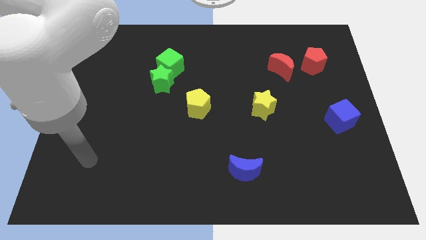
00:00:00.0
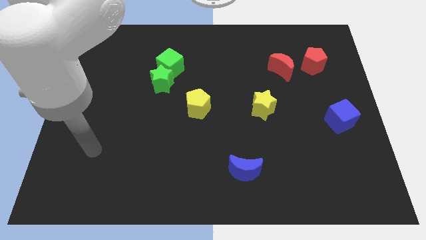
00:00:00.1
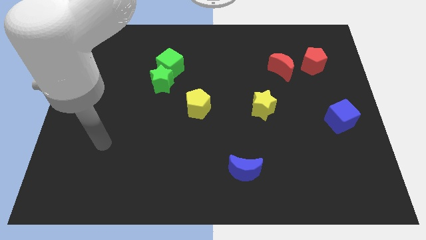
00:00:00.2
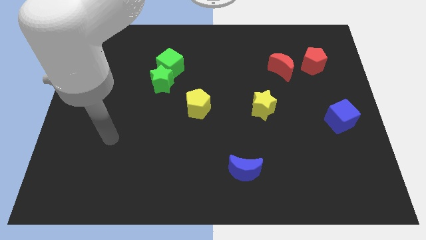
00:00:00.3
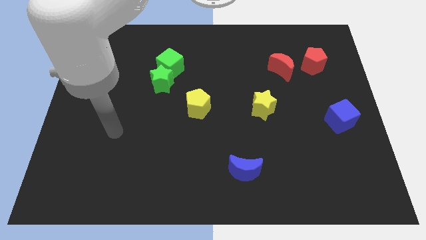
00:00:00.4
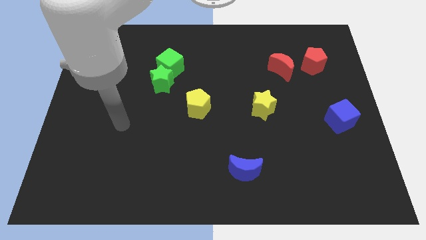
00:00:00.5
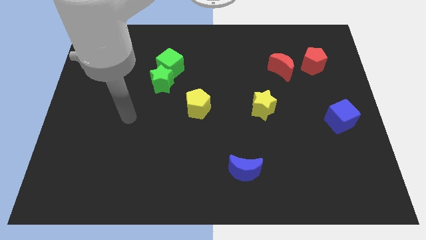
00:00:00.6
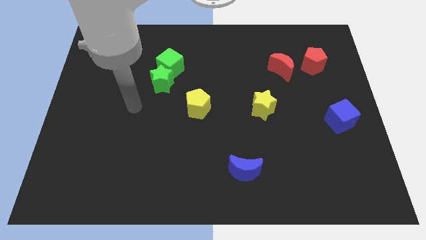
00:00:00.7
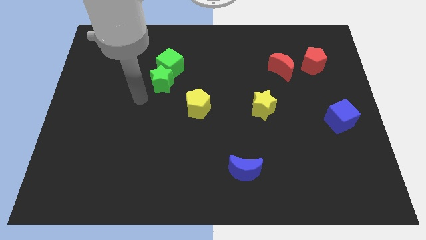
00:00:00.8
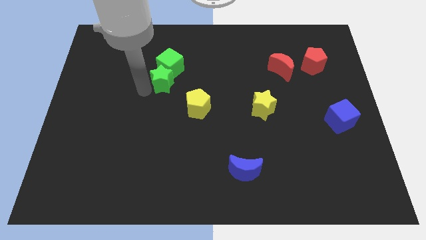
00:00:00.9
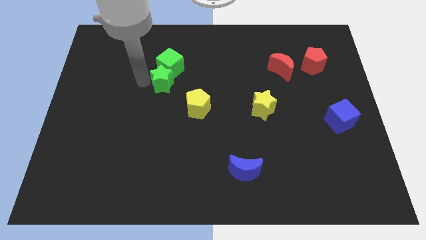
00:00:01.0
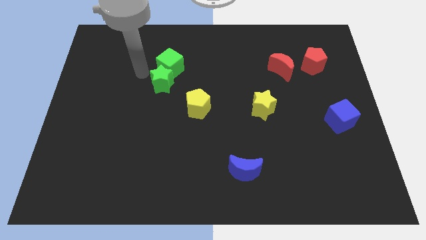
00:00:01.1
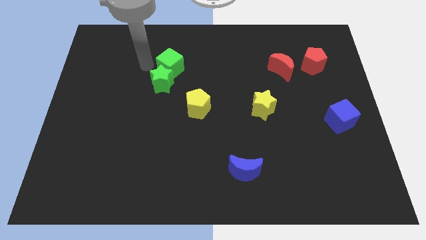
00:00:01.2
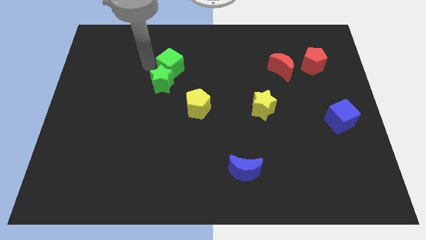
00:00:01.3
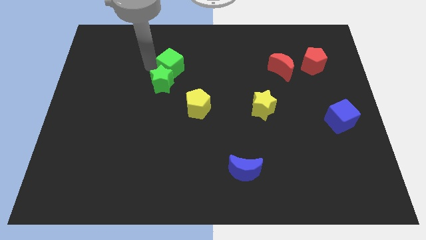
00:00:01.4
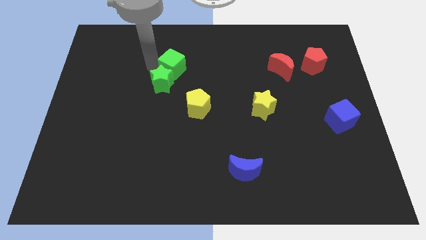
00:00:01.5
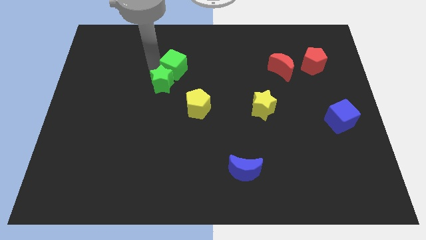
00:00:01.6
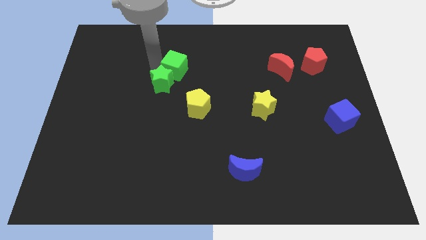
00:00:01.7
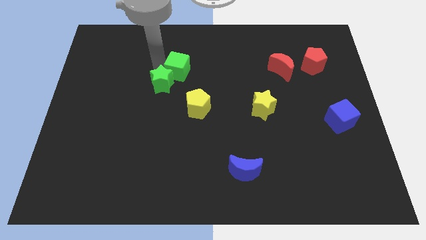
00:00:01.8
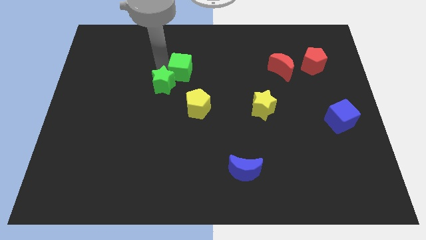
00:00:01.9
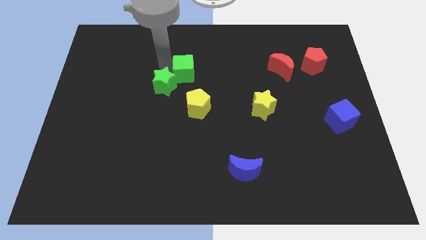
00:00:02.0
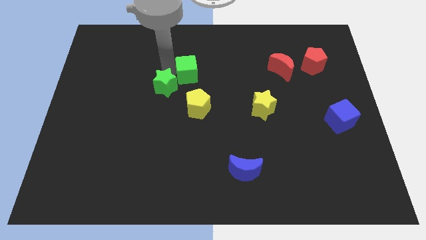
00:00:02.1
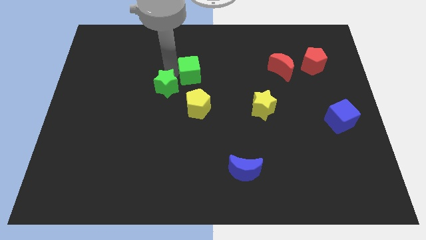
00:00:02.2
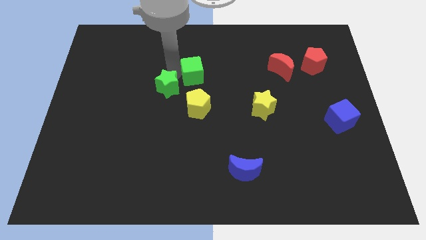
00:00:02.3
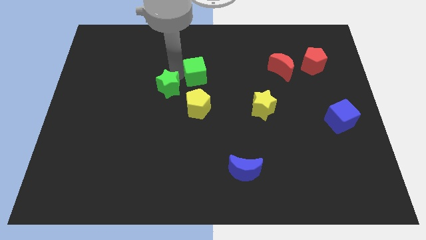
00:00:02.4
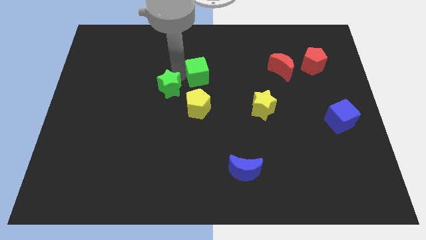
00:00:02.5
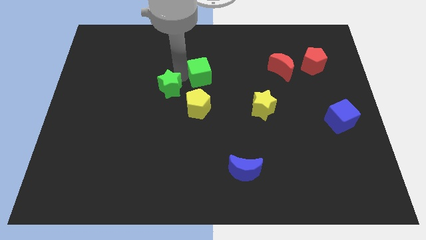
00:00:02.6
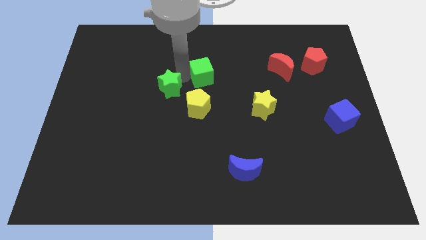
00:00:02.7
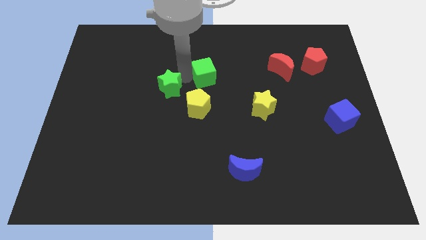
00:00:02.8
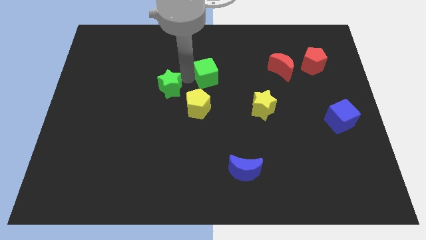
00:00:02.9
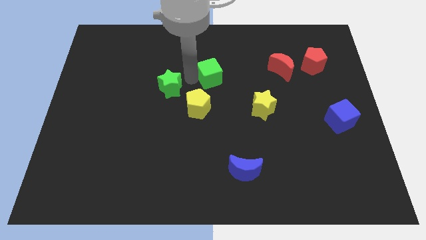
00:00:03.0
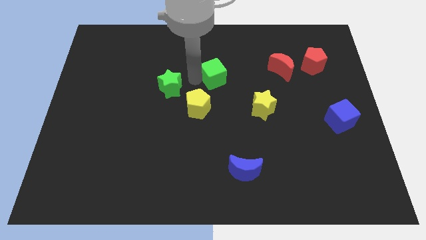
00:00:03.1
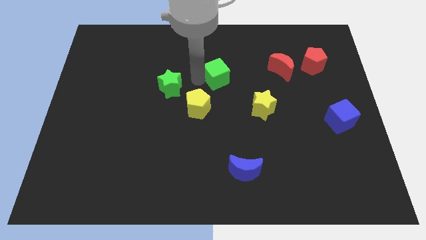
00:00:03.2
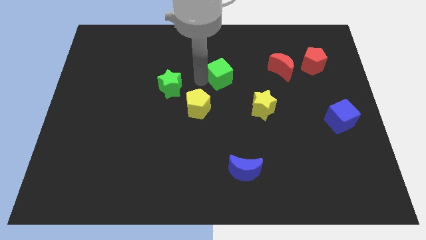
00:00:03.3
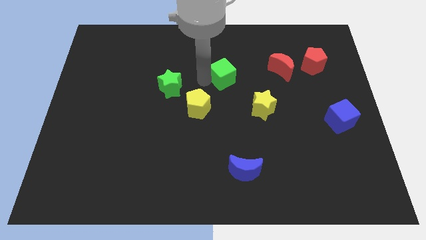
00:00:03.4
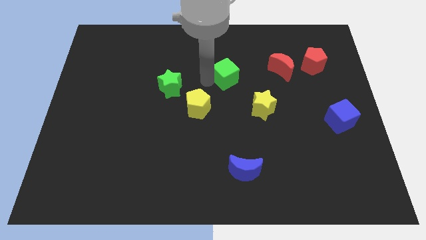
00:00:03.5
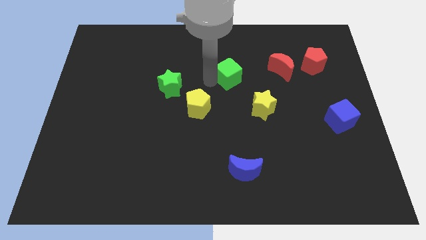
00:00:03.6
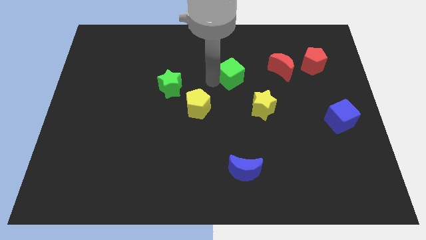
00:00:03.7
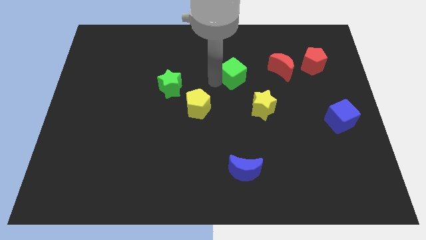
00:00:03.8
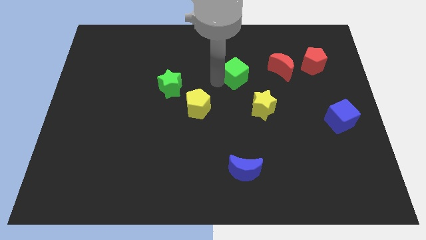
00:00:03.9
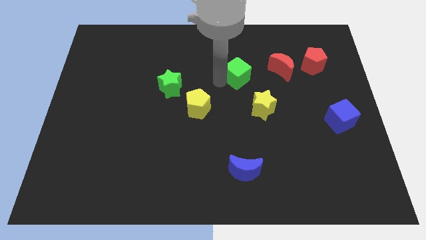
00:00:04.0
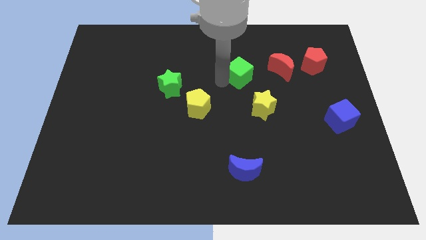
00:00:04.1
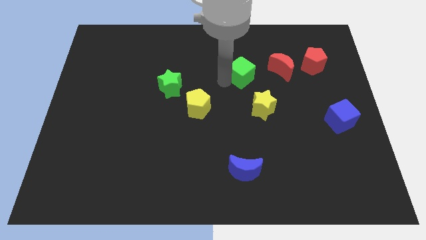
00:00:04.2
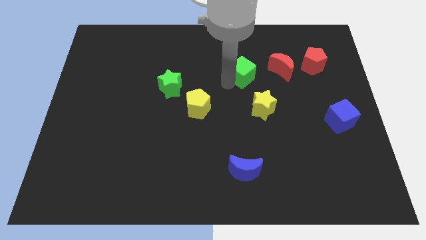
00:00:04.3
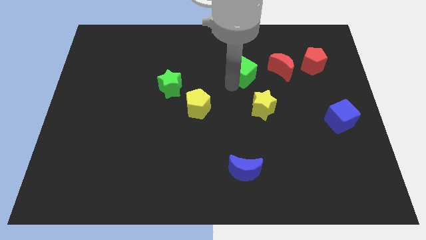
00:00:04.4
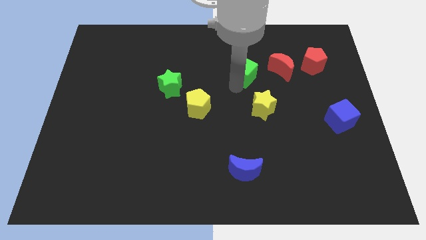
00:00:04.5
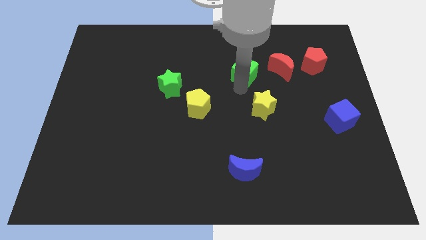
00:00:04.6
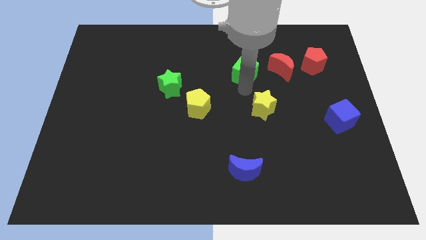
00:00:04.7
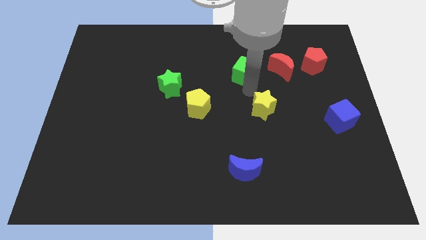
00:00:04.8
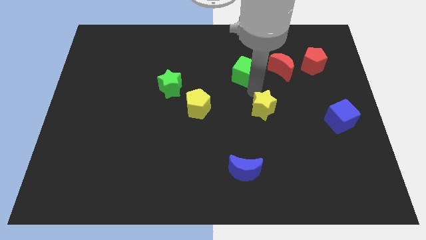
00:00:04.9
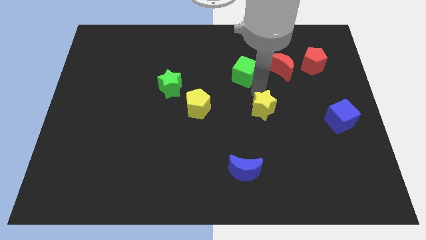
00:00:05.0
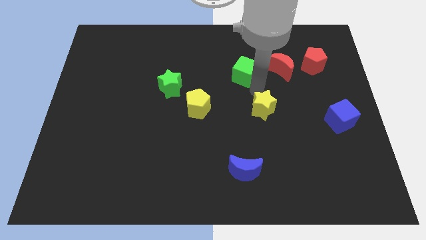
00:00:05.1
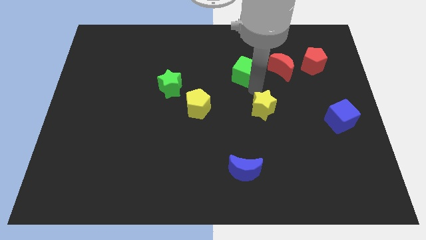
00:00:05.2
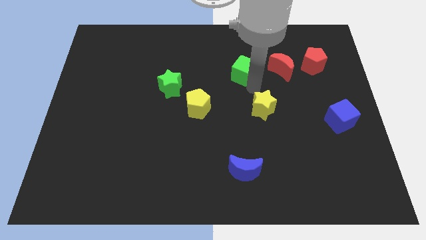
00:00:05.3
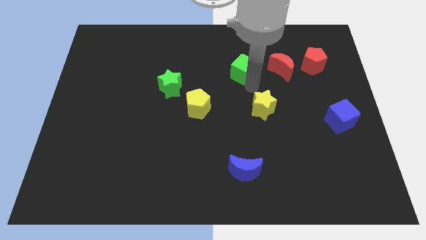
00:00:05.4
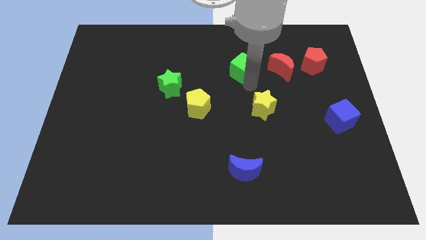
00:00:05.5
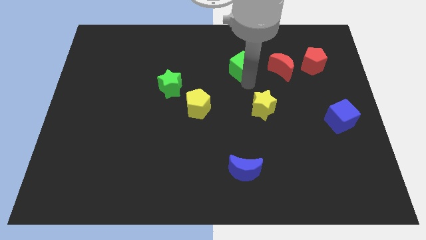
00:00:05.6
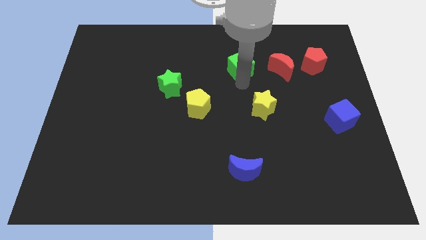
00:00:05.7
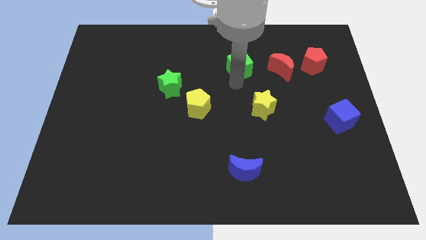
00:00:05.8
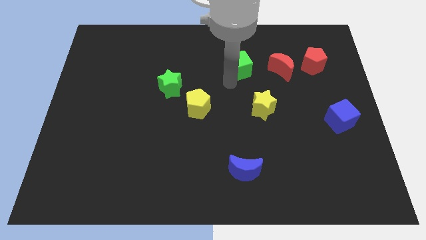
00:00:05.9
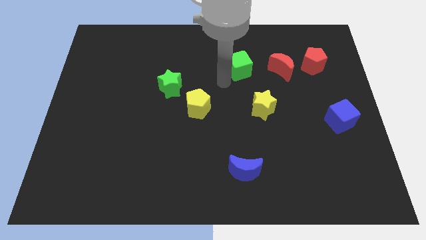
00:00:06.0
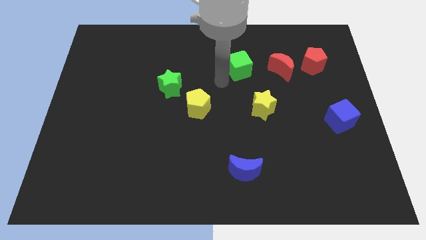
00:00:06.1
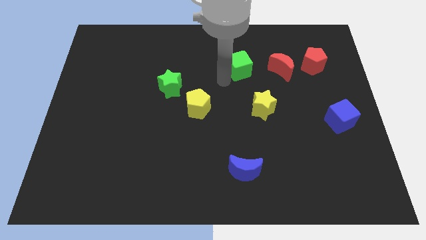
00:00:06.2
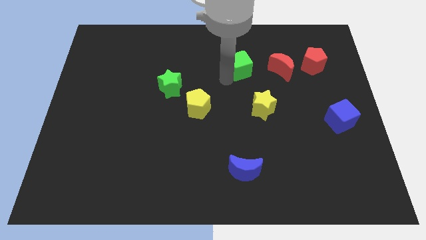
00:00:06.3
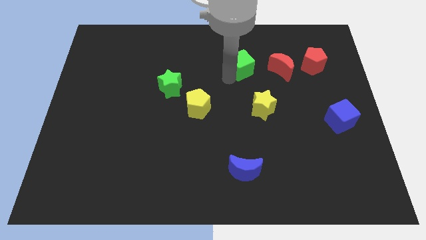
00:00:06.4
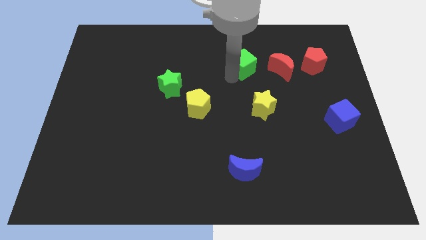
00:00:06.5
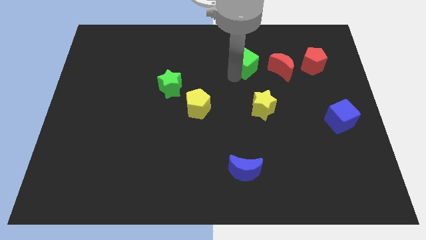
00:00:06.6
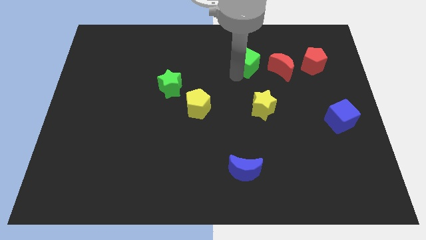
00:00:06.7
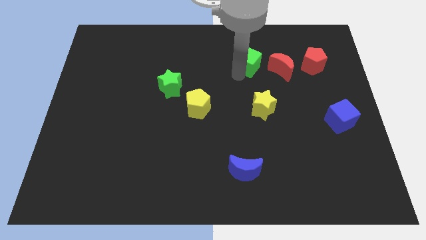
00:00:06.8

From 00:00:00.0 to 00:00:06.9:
push the green cube right

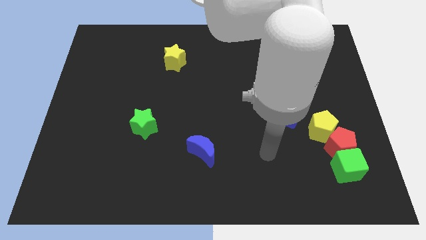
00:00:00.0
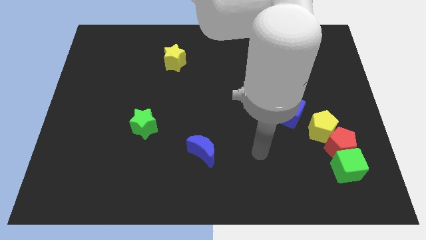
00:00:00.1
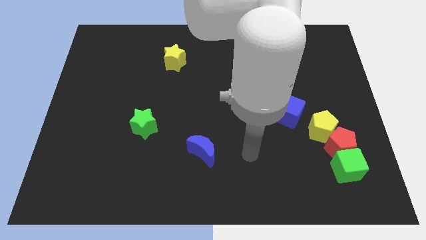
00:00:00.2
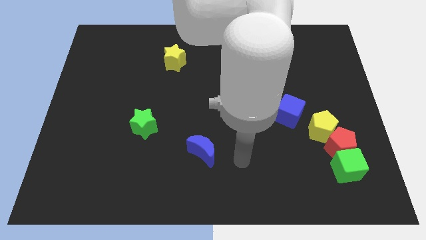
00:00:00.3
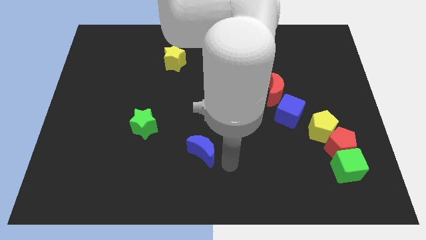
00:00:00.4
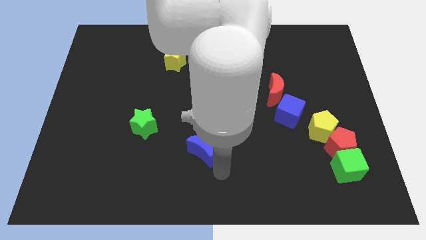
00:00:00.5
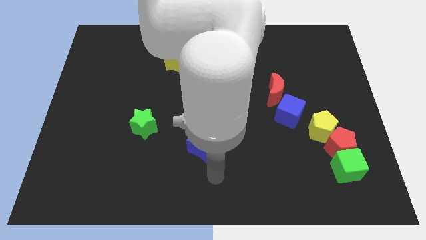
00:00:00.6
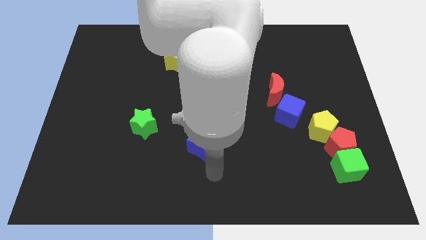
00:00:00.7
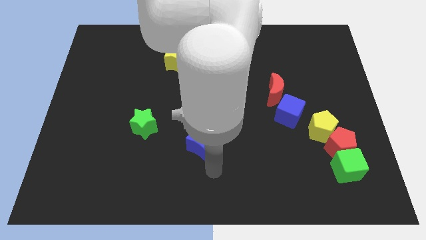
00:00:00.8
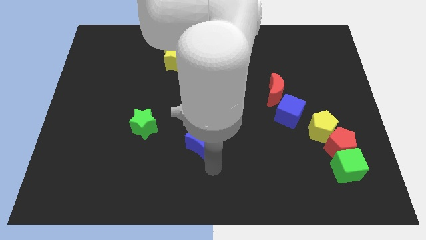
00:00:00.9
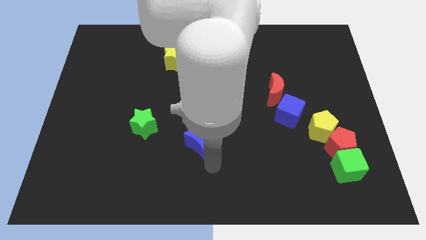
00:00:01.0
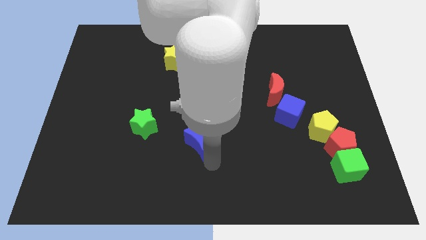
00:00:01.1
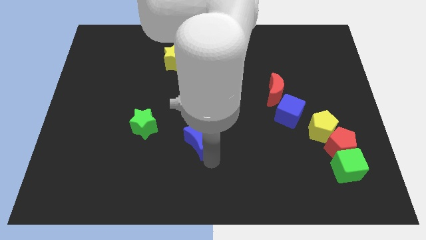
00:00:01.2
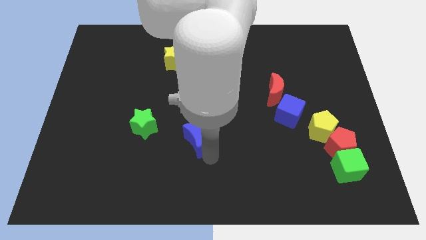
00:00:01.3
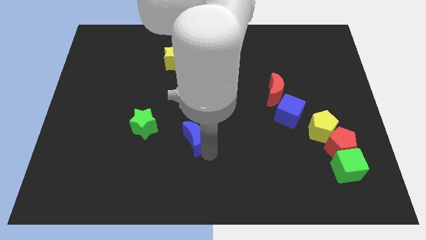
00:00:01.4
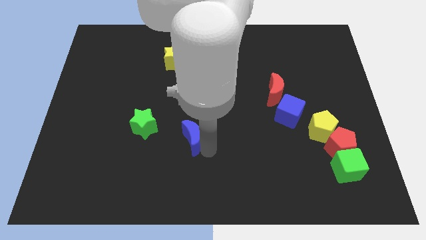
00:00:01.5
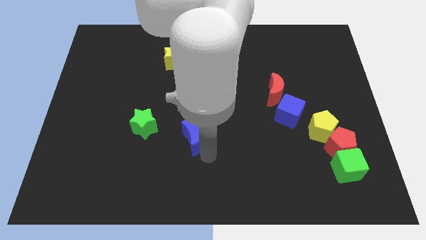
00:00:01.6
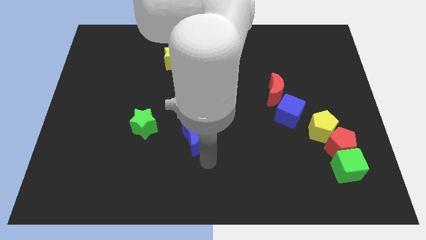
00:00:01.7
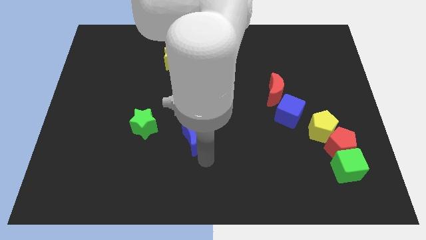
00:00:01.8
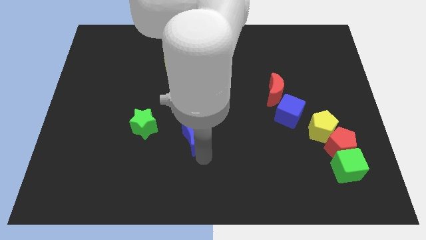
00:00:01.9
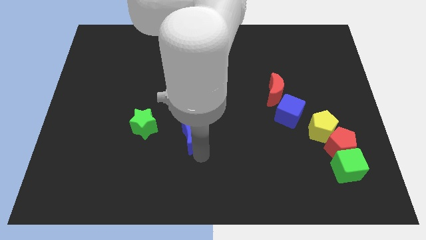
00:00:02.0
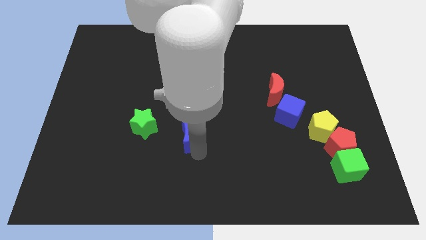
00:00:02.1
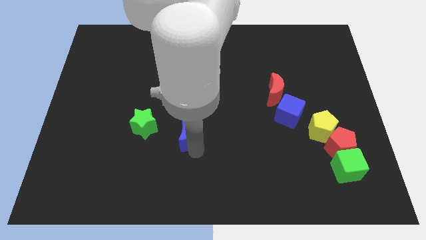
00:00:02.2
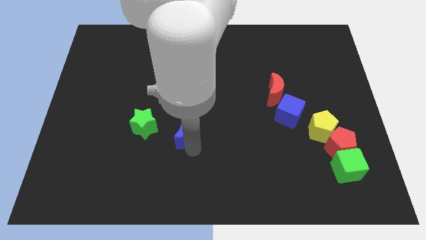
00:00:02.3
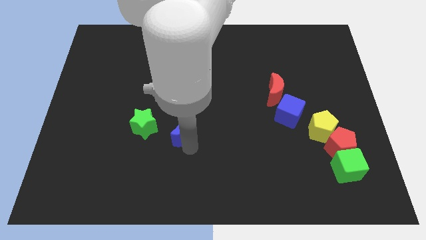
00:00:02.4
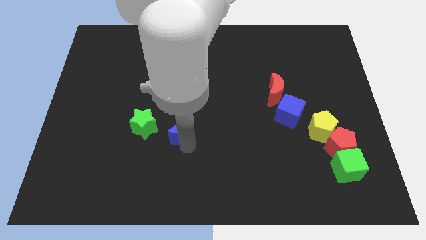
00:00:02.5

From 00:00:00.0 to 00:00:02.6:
slide the blue moon diagonally upwards and to the left a bit
